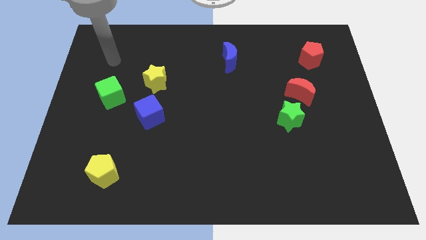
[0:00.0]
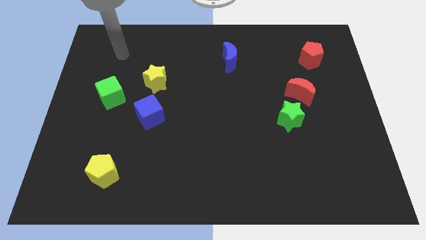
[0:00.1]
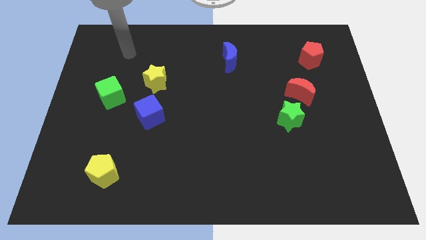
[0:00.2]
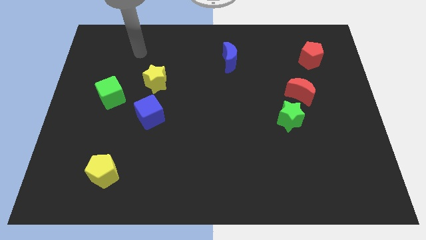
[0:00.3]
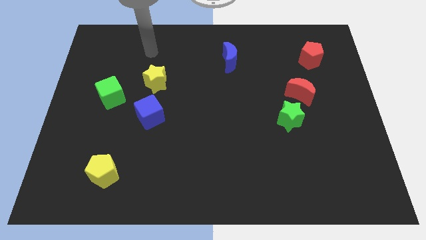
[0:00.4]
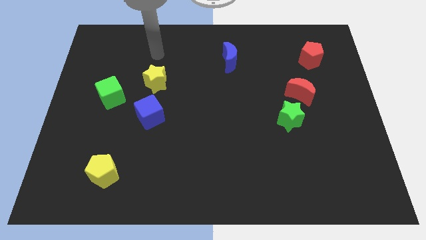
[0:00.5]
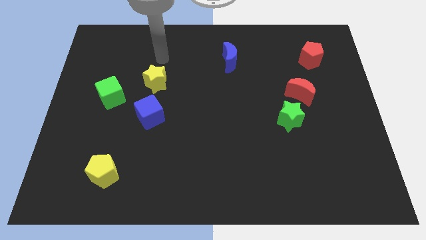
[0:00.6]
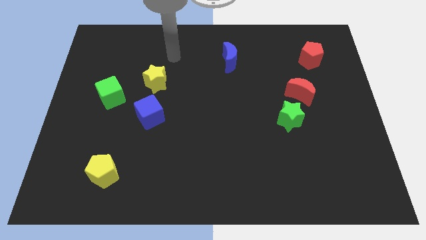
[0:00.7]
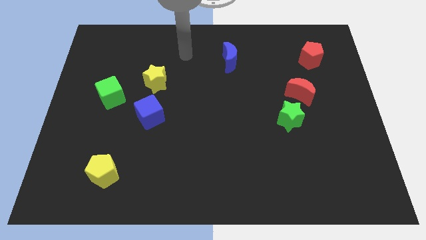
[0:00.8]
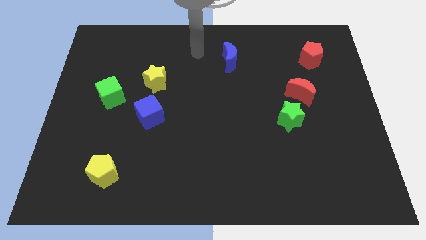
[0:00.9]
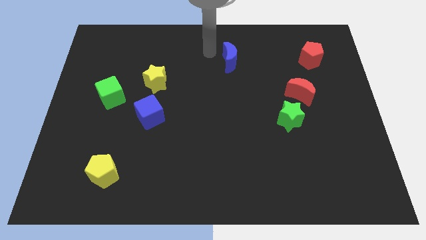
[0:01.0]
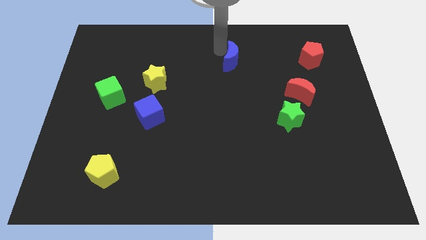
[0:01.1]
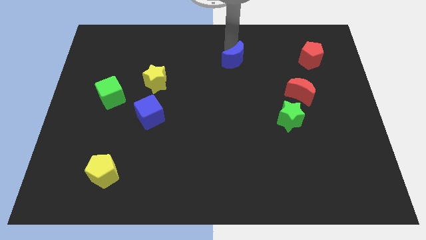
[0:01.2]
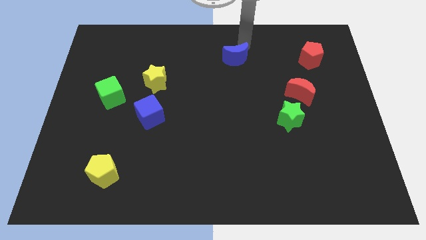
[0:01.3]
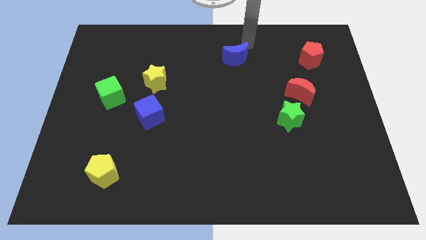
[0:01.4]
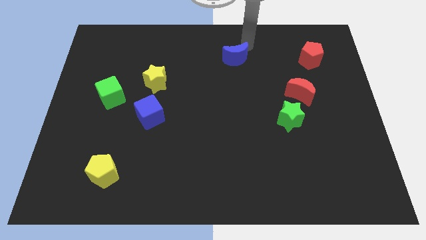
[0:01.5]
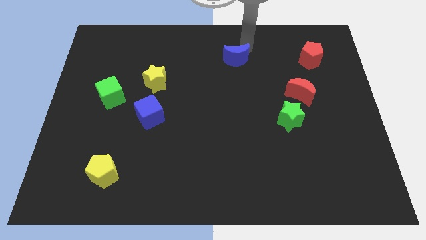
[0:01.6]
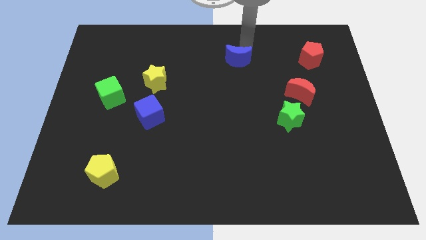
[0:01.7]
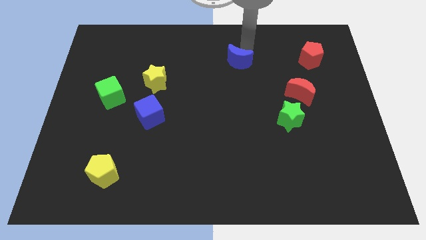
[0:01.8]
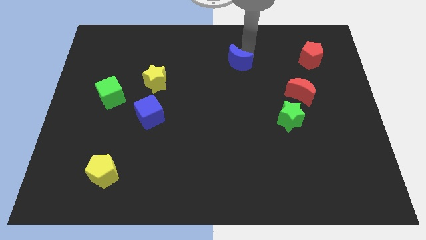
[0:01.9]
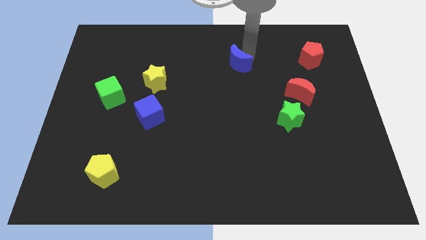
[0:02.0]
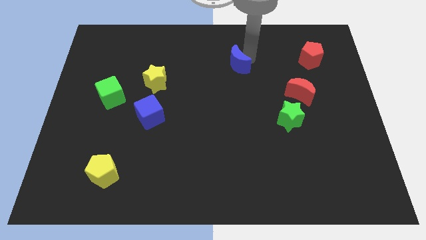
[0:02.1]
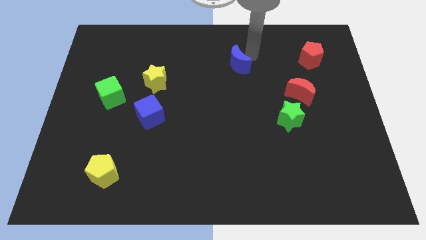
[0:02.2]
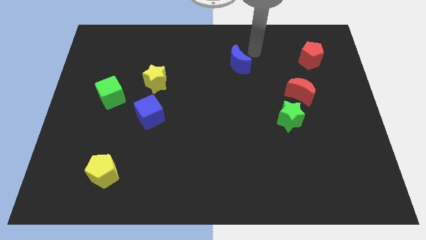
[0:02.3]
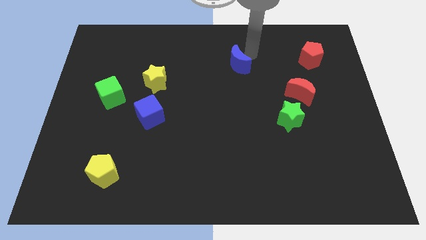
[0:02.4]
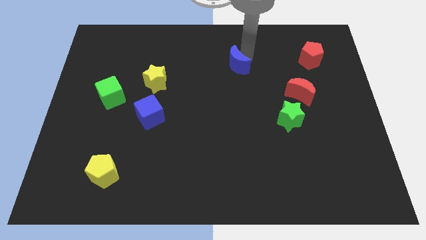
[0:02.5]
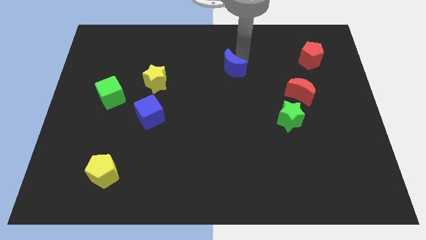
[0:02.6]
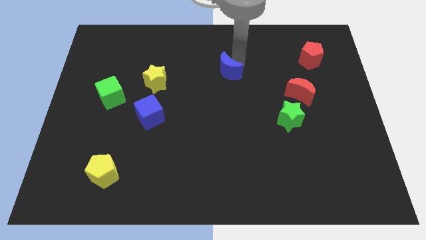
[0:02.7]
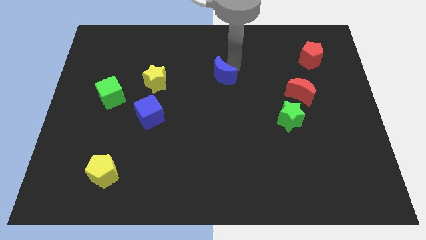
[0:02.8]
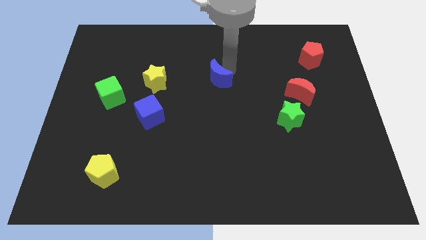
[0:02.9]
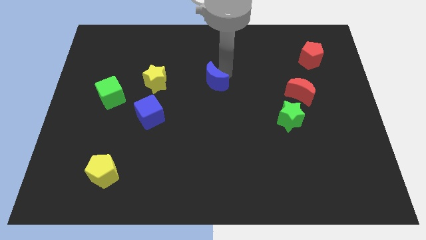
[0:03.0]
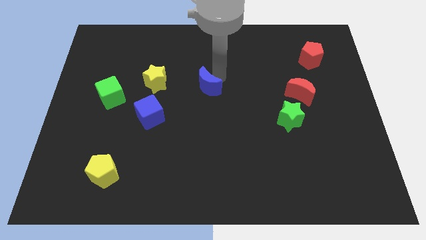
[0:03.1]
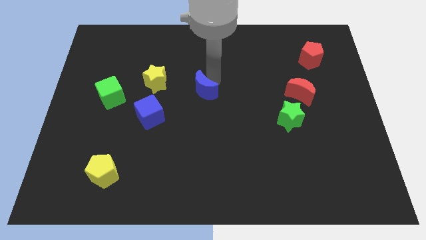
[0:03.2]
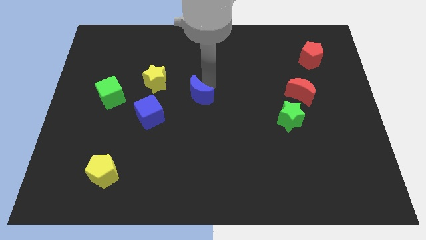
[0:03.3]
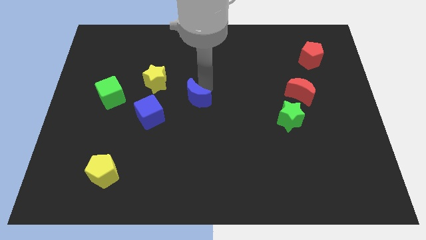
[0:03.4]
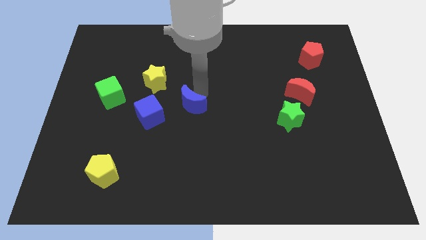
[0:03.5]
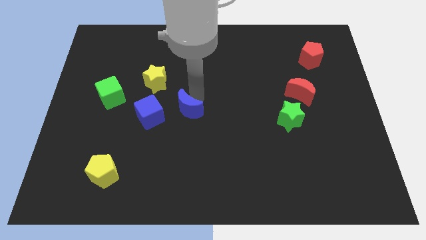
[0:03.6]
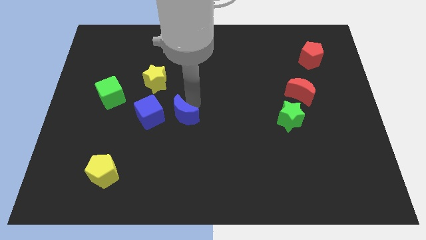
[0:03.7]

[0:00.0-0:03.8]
move the blue moon downwards and to the left

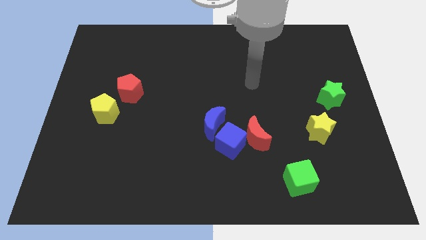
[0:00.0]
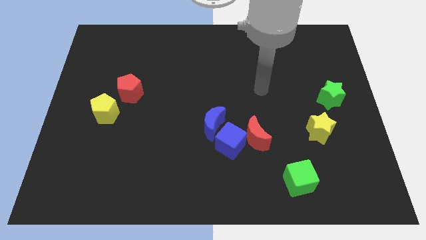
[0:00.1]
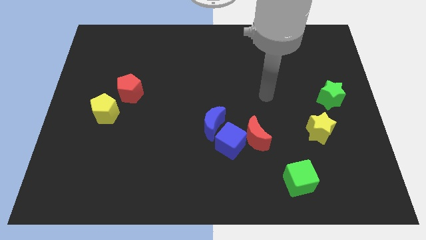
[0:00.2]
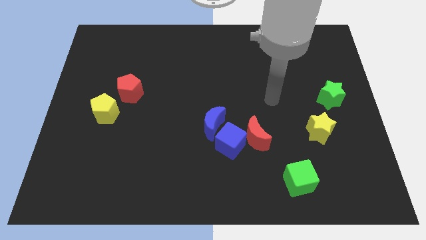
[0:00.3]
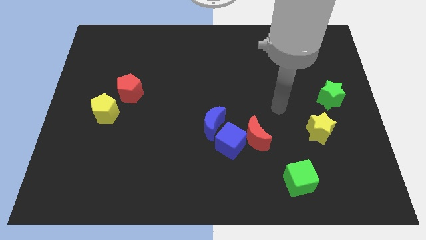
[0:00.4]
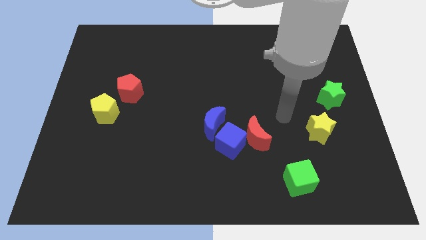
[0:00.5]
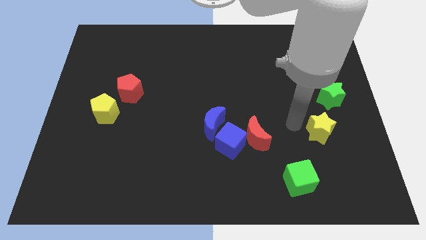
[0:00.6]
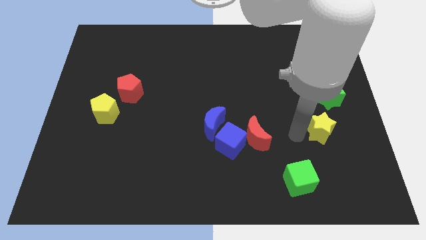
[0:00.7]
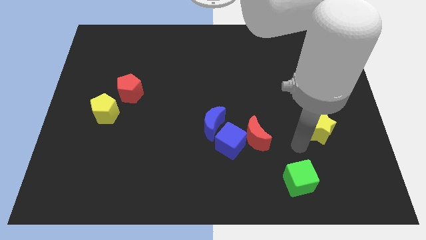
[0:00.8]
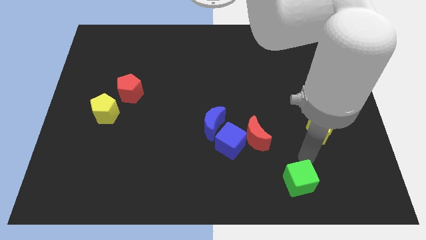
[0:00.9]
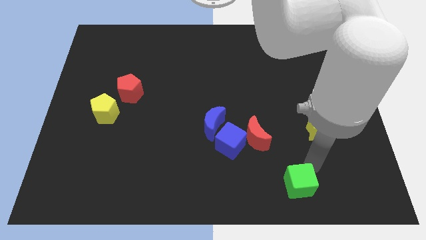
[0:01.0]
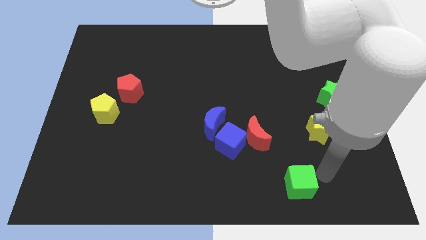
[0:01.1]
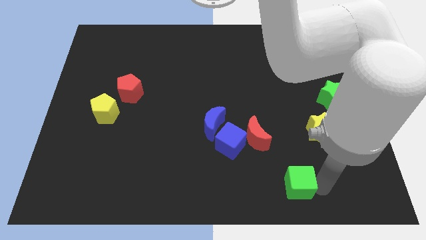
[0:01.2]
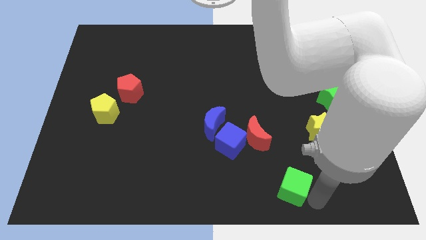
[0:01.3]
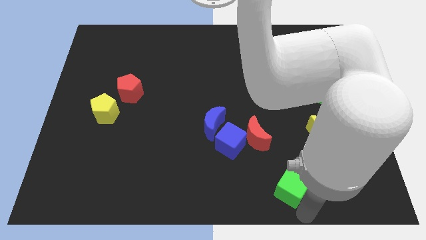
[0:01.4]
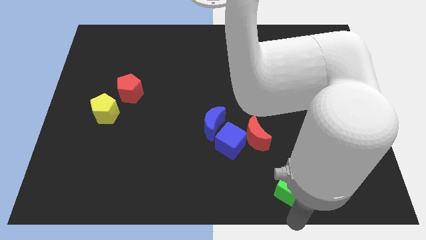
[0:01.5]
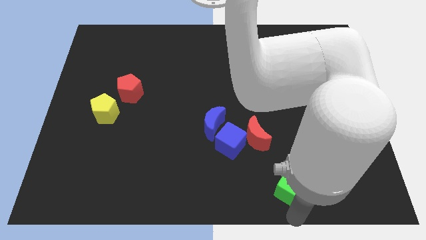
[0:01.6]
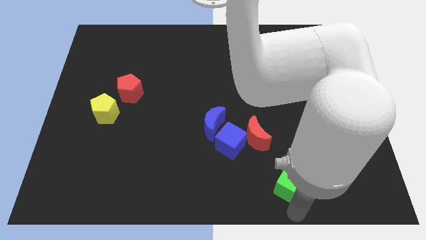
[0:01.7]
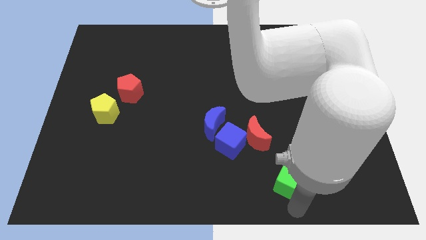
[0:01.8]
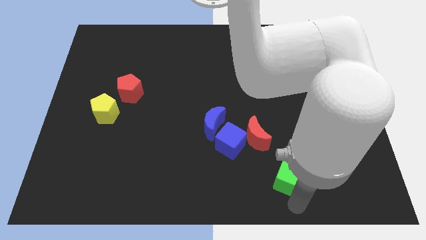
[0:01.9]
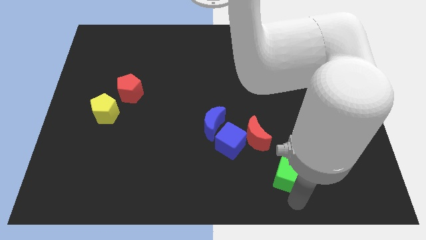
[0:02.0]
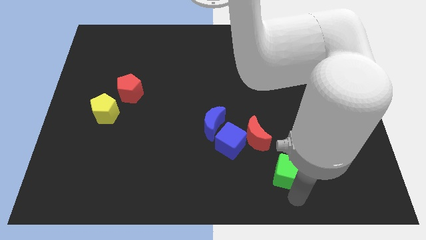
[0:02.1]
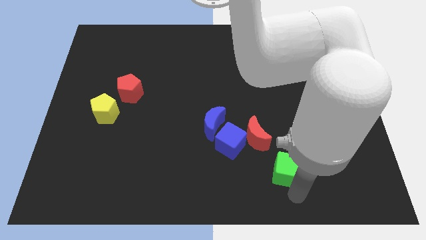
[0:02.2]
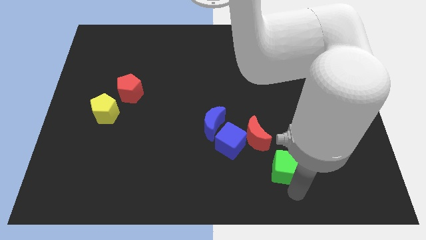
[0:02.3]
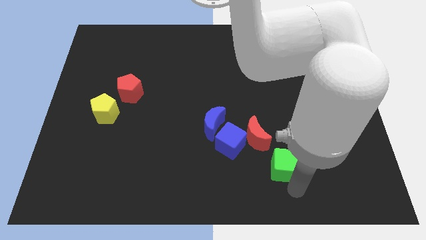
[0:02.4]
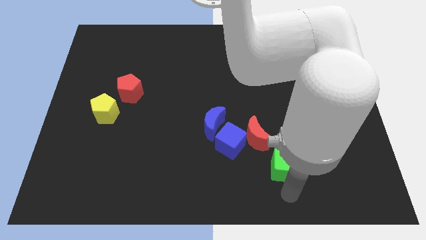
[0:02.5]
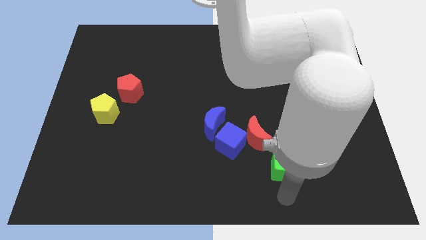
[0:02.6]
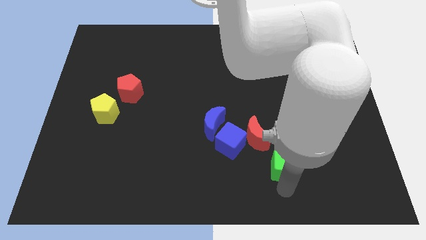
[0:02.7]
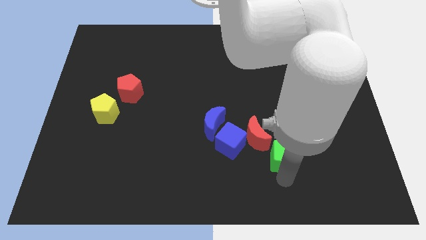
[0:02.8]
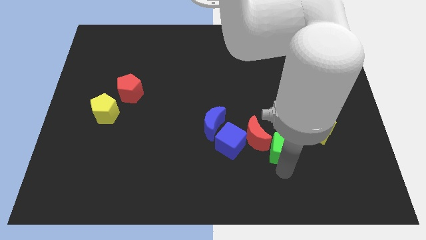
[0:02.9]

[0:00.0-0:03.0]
slightly push the green cube upwards

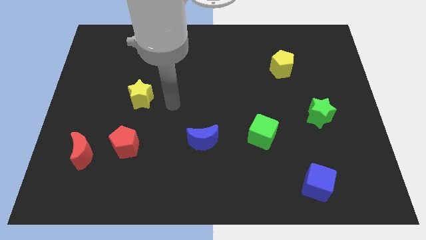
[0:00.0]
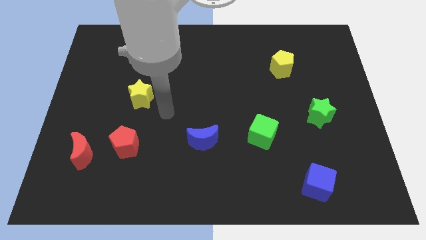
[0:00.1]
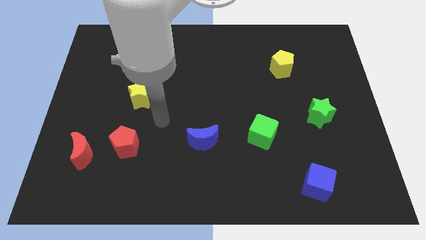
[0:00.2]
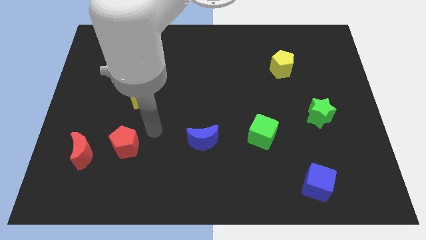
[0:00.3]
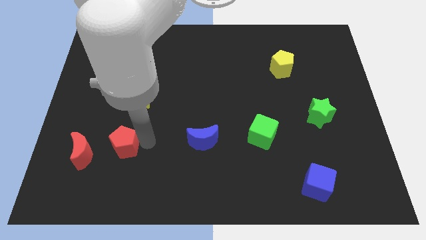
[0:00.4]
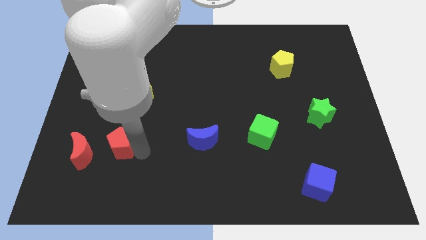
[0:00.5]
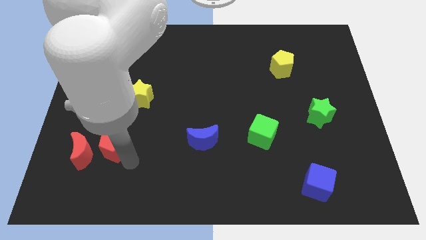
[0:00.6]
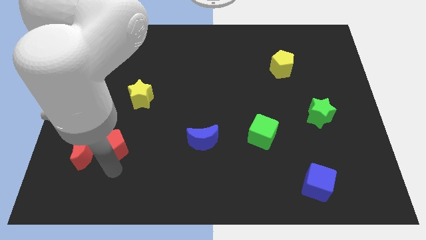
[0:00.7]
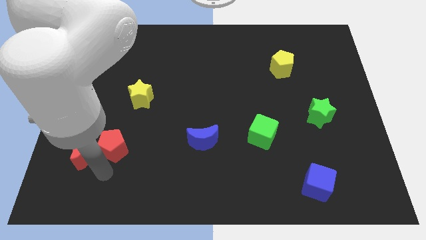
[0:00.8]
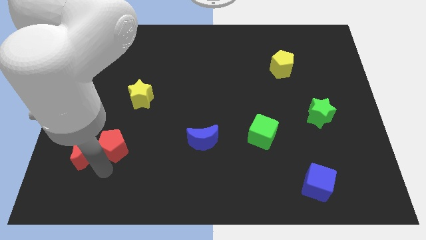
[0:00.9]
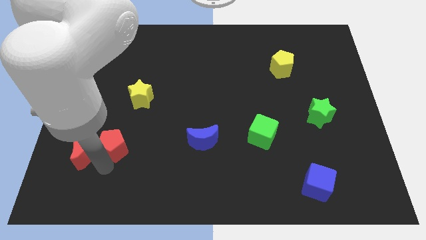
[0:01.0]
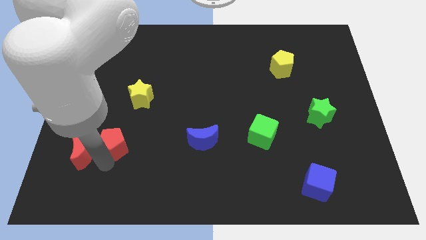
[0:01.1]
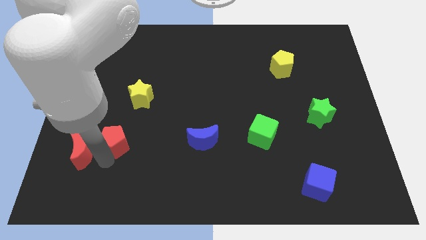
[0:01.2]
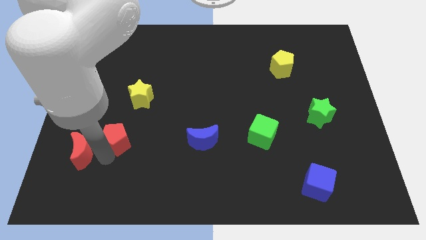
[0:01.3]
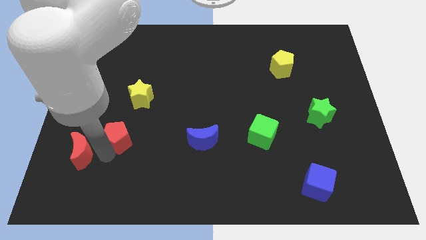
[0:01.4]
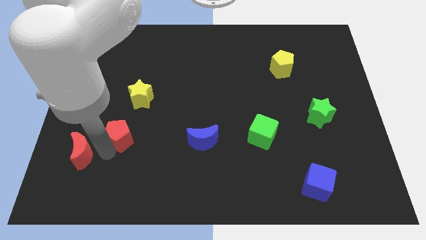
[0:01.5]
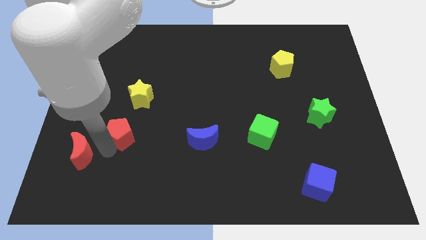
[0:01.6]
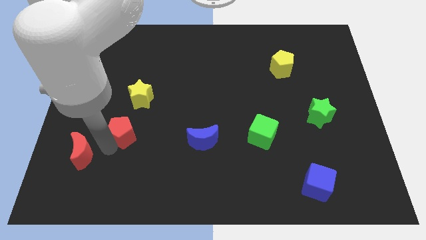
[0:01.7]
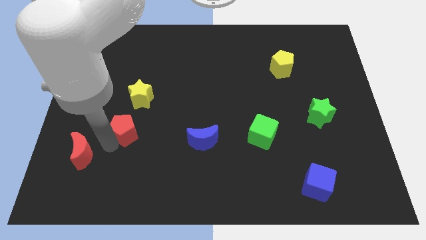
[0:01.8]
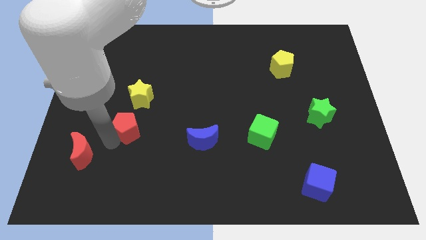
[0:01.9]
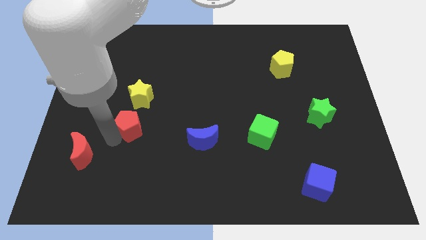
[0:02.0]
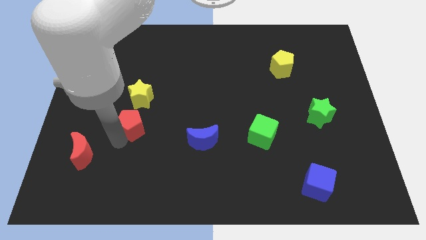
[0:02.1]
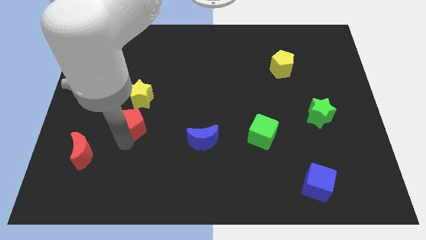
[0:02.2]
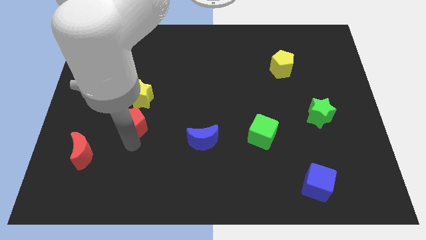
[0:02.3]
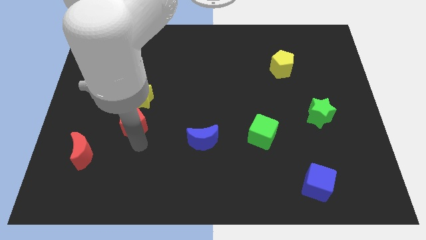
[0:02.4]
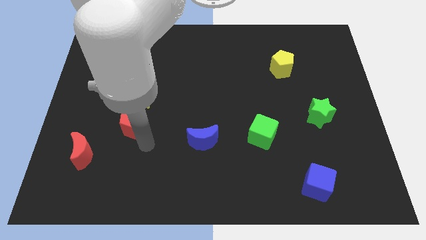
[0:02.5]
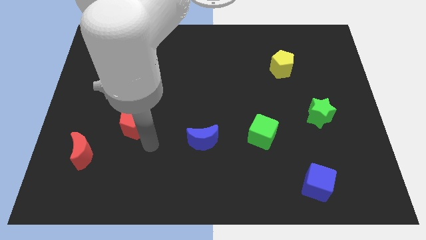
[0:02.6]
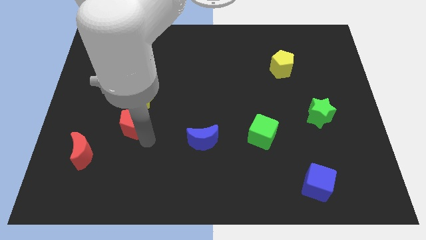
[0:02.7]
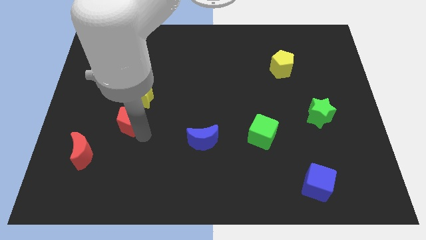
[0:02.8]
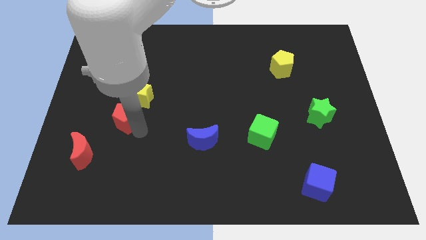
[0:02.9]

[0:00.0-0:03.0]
slide the red pentagon a little upwards
